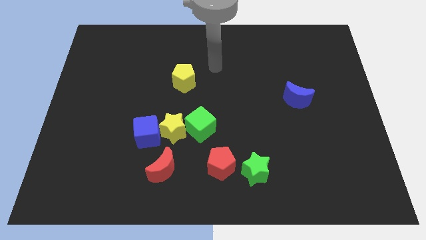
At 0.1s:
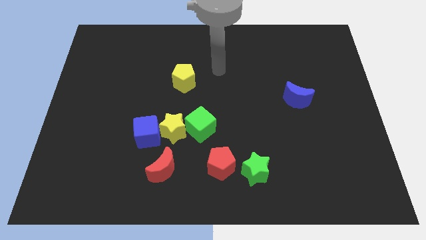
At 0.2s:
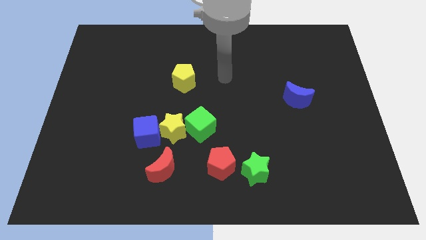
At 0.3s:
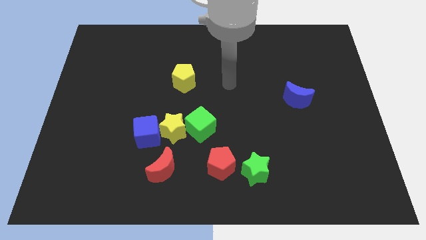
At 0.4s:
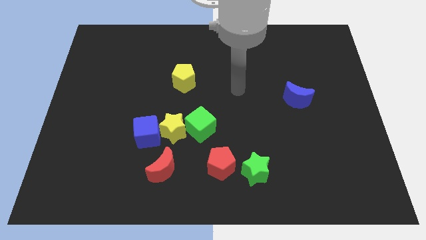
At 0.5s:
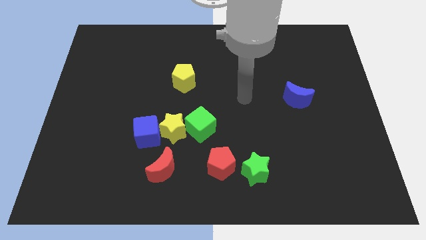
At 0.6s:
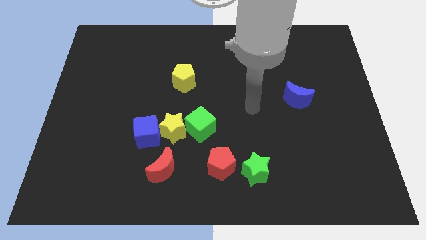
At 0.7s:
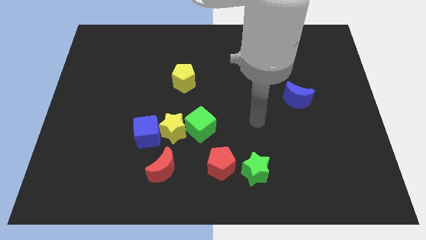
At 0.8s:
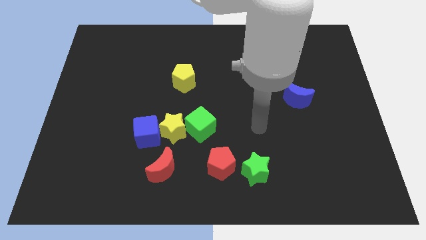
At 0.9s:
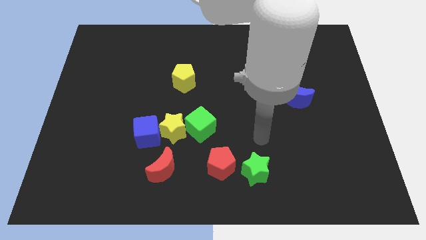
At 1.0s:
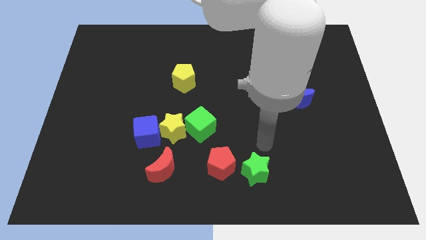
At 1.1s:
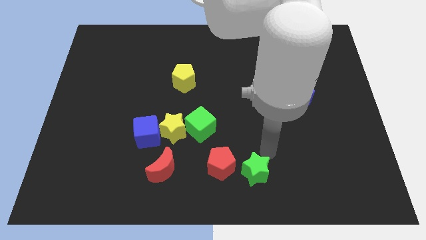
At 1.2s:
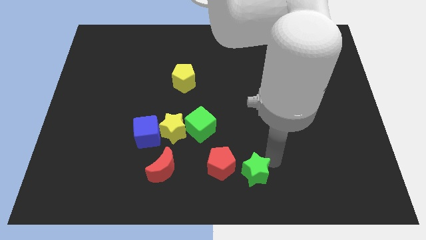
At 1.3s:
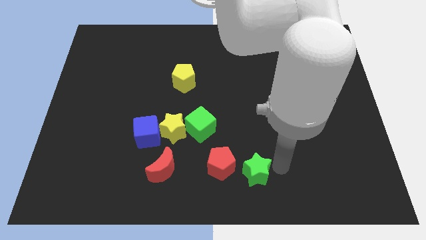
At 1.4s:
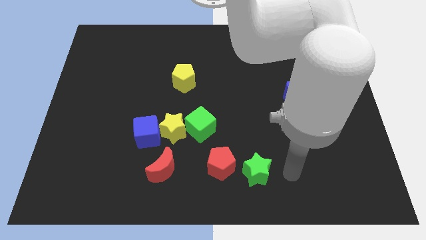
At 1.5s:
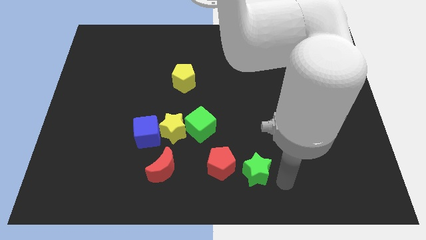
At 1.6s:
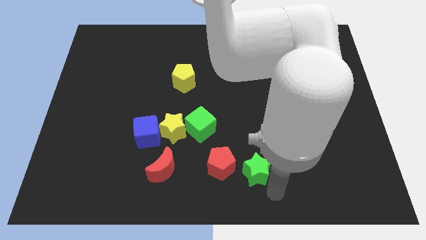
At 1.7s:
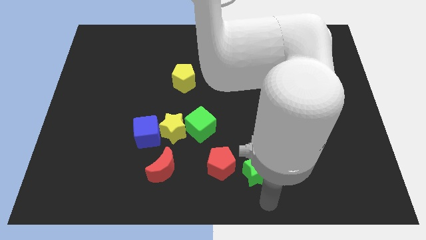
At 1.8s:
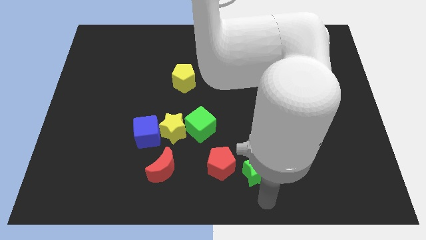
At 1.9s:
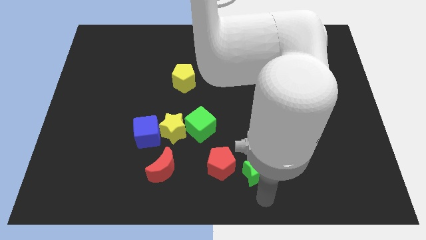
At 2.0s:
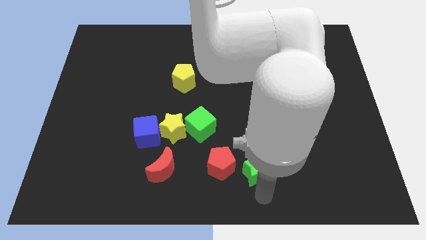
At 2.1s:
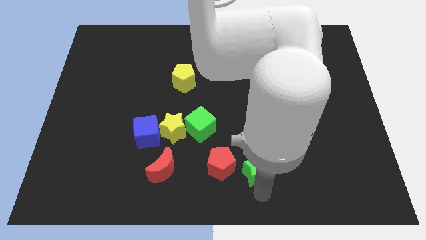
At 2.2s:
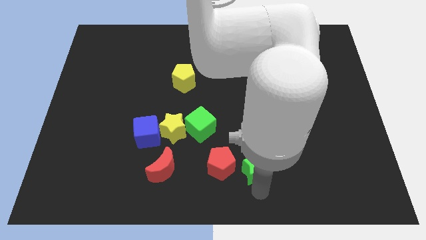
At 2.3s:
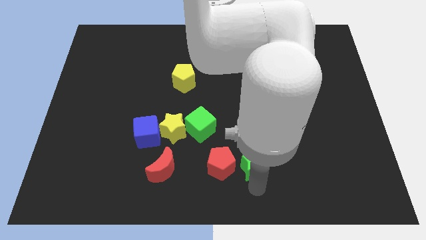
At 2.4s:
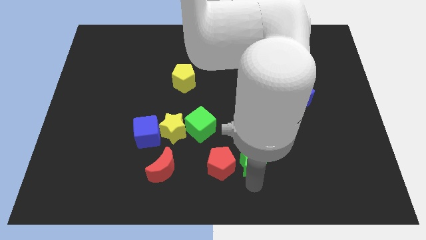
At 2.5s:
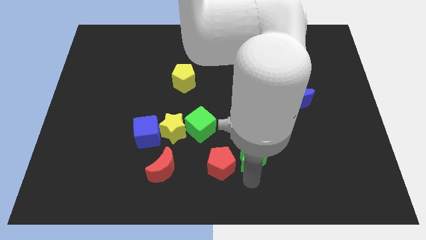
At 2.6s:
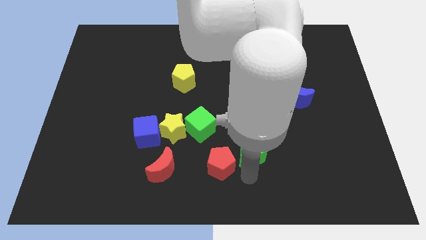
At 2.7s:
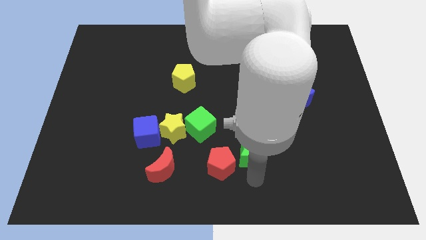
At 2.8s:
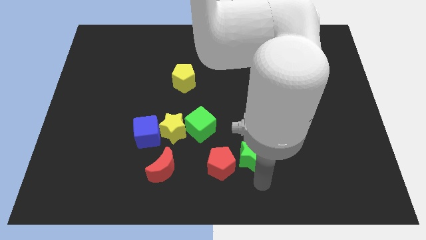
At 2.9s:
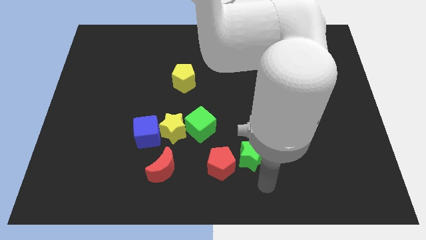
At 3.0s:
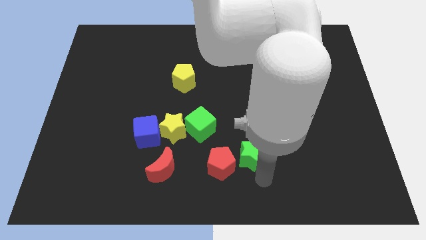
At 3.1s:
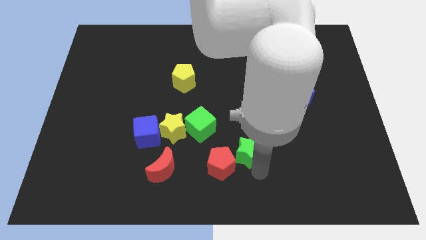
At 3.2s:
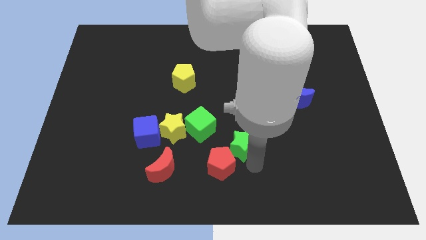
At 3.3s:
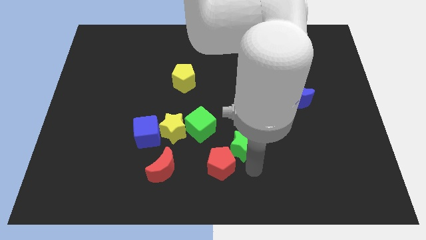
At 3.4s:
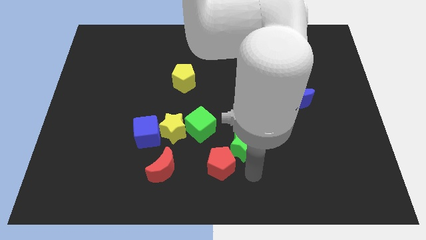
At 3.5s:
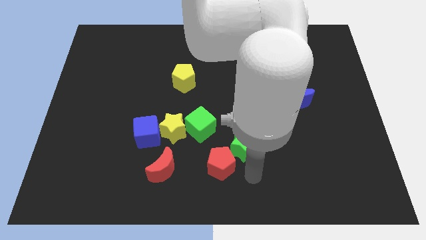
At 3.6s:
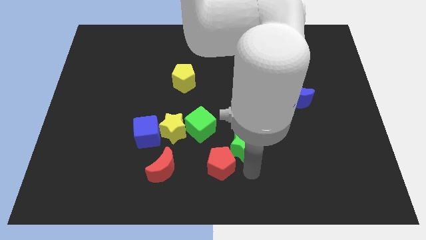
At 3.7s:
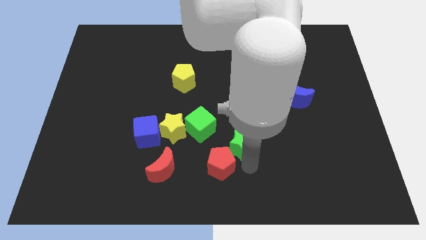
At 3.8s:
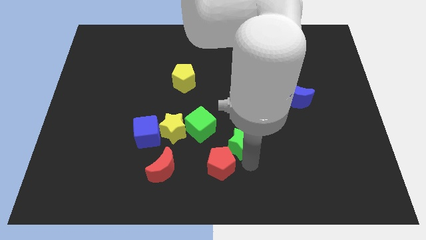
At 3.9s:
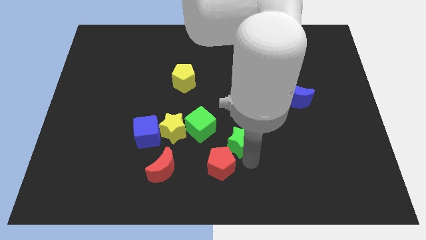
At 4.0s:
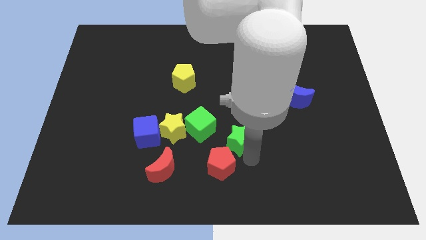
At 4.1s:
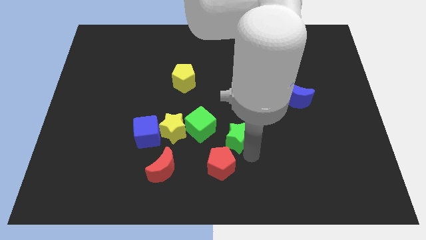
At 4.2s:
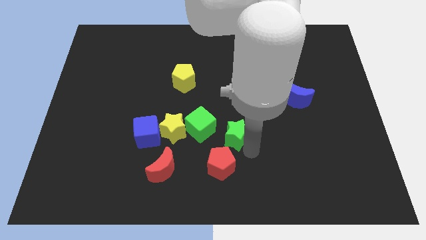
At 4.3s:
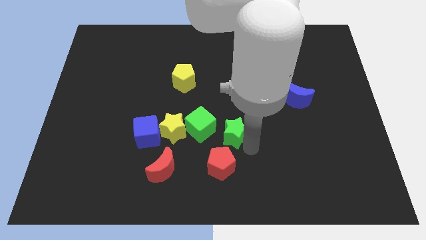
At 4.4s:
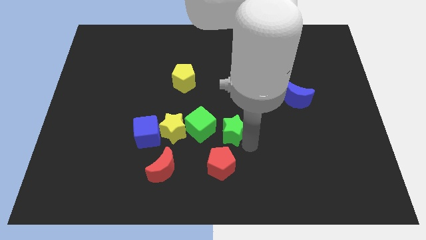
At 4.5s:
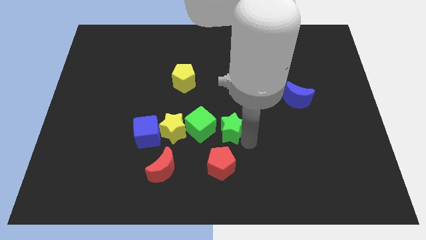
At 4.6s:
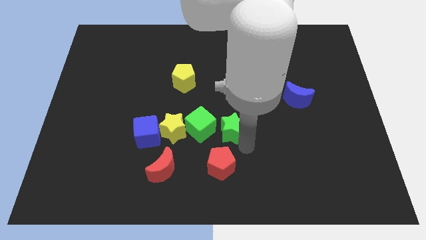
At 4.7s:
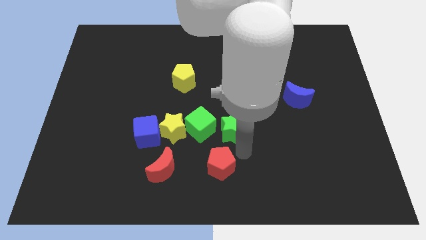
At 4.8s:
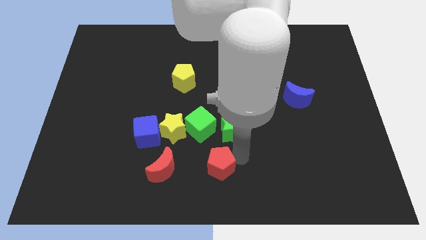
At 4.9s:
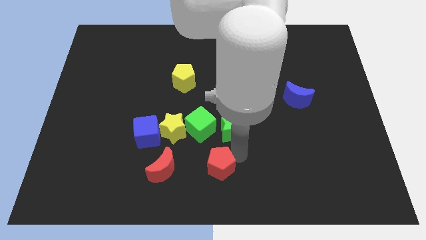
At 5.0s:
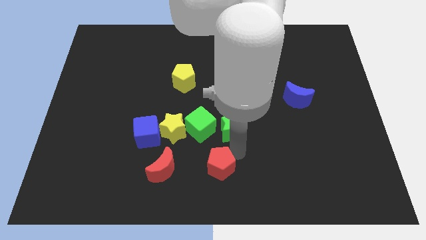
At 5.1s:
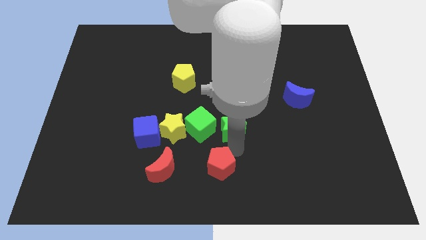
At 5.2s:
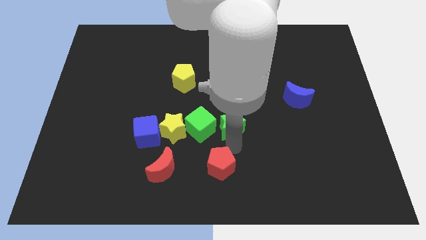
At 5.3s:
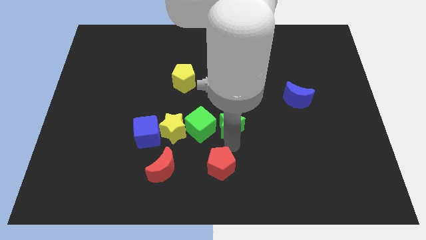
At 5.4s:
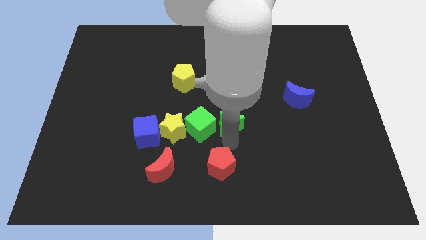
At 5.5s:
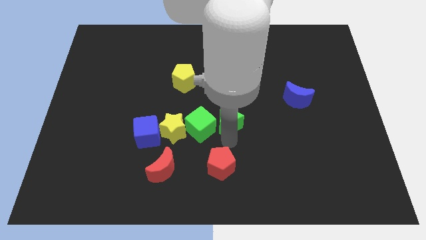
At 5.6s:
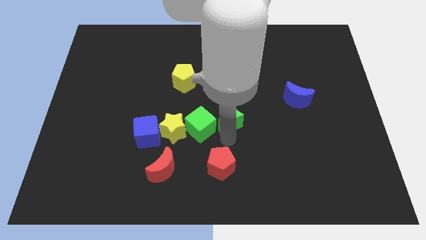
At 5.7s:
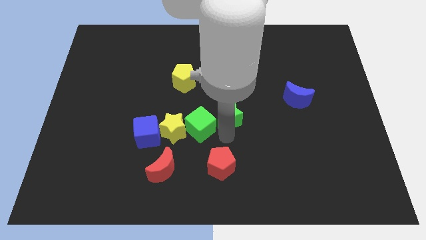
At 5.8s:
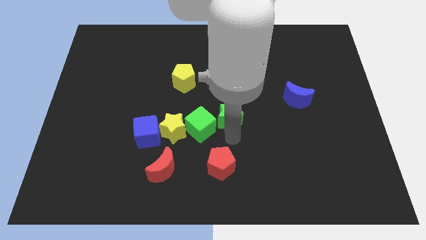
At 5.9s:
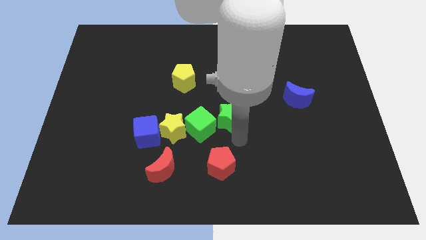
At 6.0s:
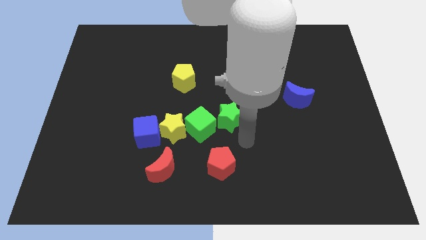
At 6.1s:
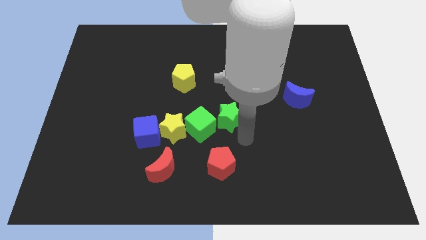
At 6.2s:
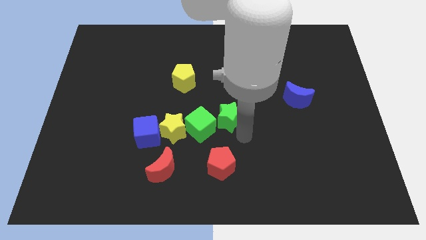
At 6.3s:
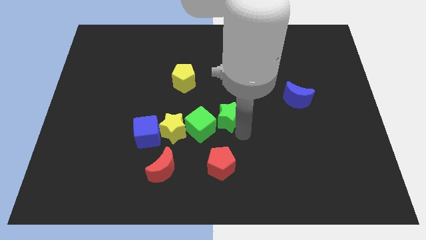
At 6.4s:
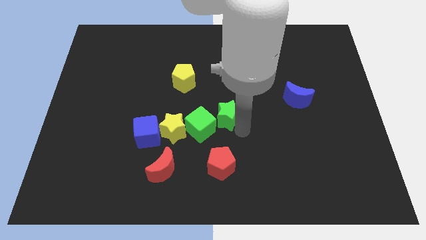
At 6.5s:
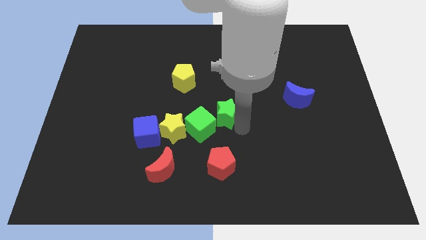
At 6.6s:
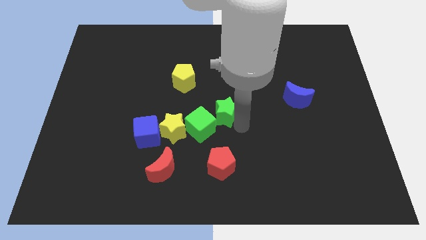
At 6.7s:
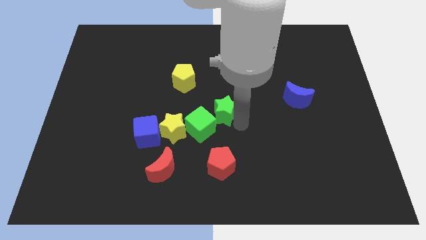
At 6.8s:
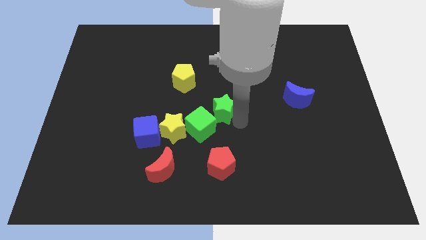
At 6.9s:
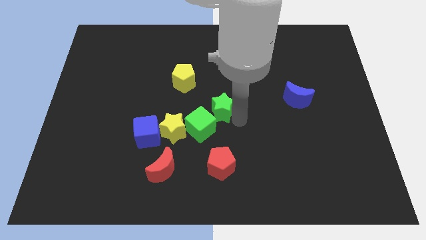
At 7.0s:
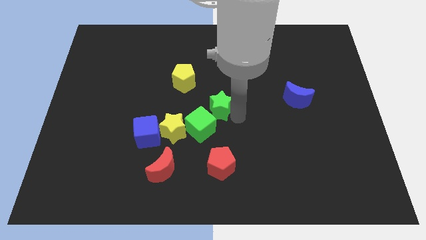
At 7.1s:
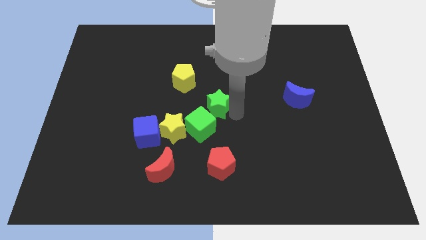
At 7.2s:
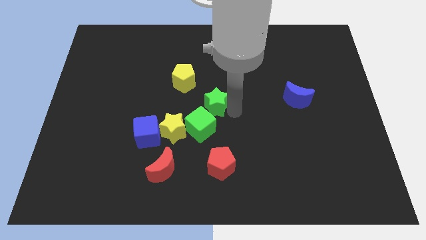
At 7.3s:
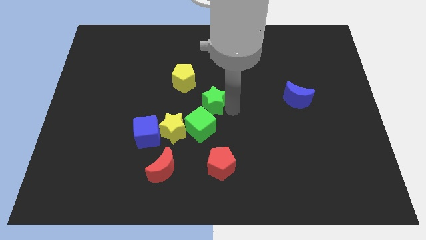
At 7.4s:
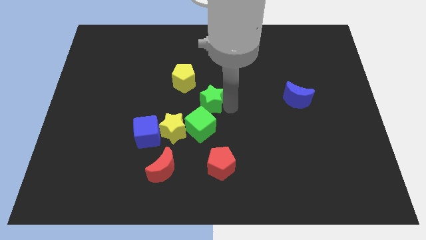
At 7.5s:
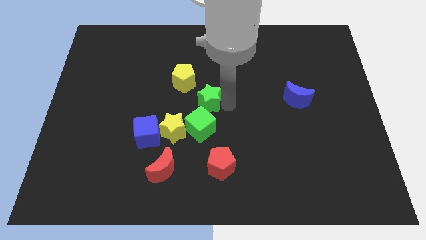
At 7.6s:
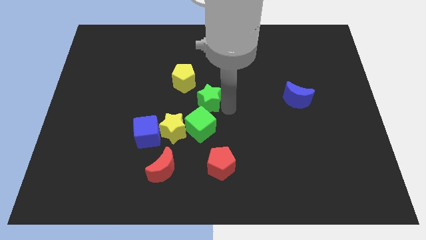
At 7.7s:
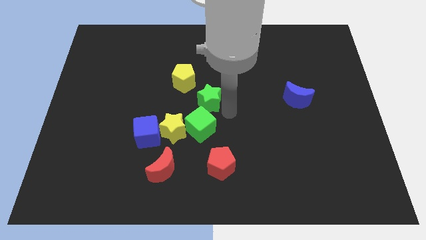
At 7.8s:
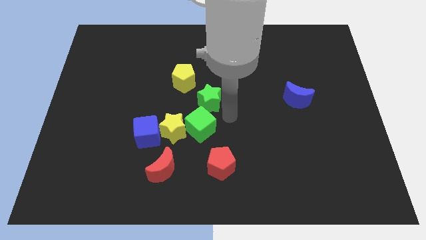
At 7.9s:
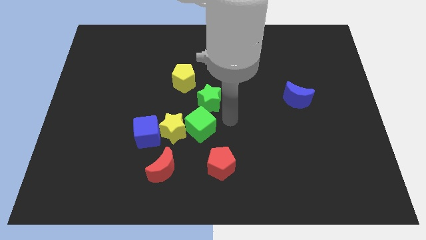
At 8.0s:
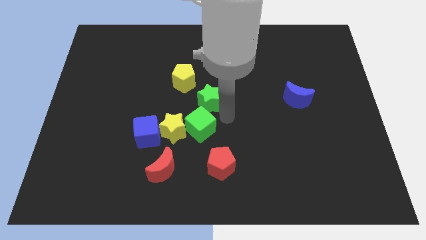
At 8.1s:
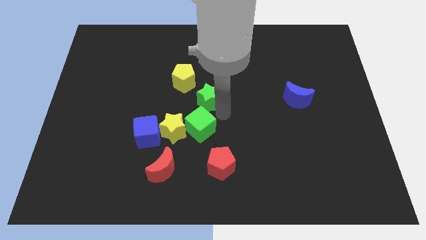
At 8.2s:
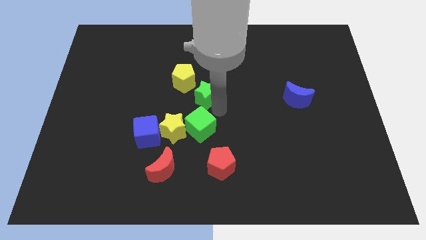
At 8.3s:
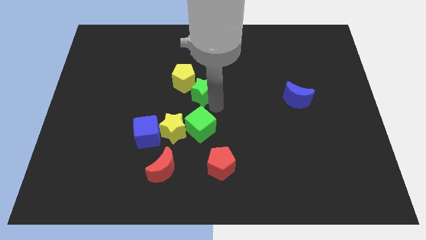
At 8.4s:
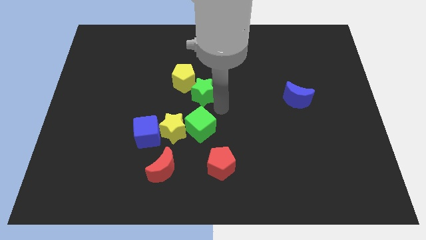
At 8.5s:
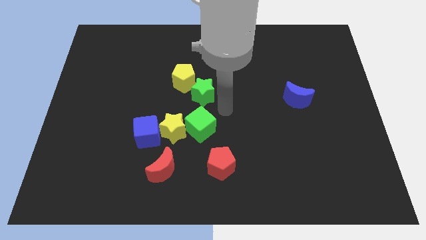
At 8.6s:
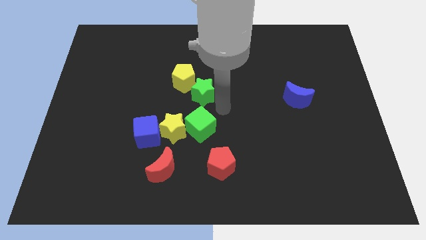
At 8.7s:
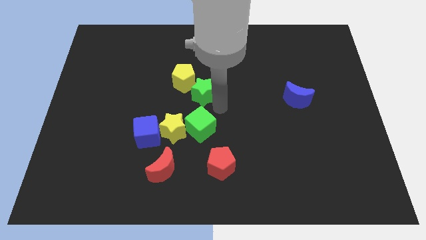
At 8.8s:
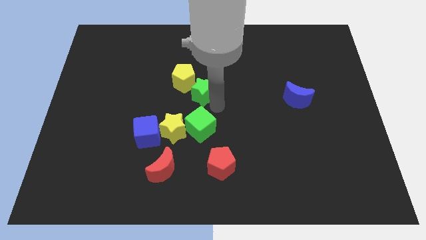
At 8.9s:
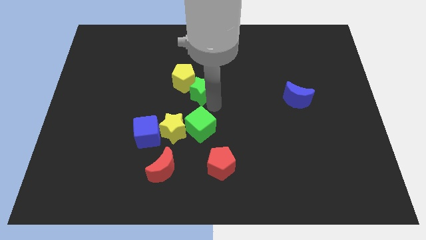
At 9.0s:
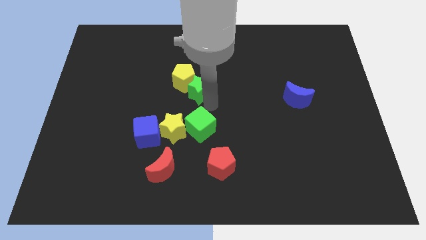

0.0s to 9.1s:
push the green star close to the yellow pentagon
